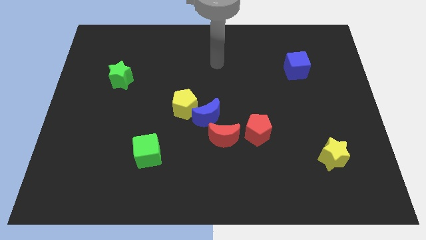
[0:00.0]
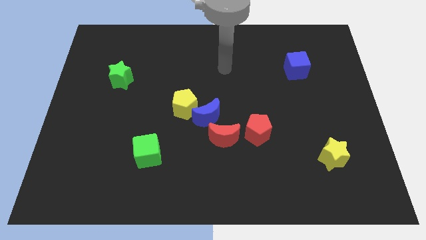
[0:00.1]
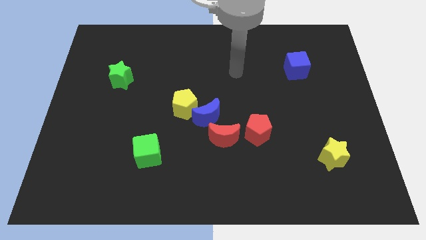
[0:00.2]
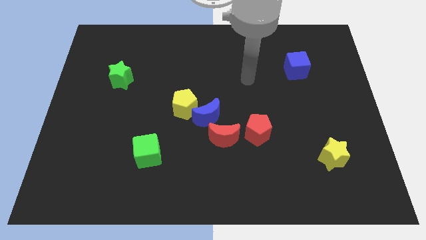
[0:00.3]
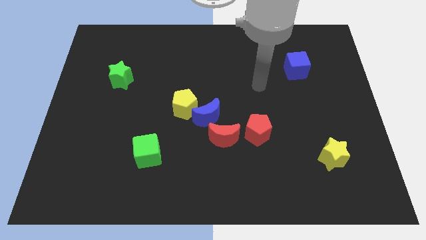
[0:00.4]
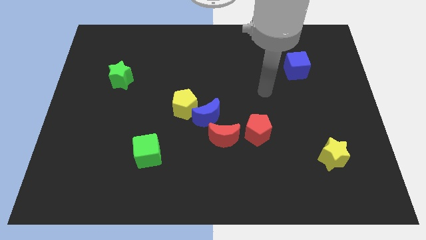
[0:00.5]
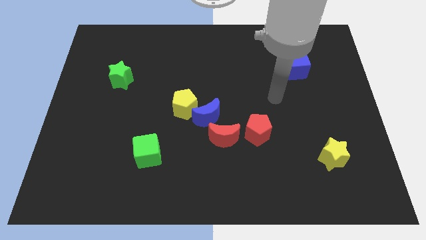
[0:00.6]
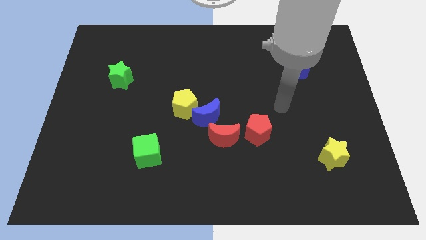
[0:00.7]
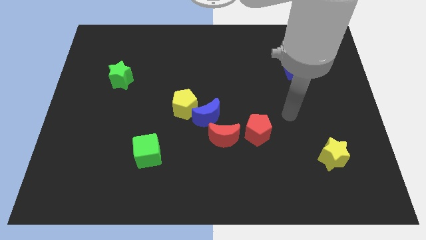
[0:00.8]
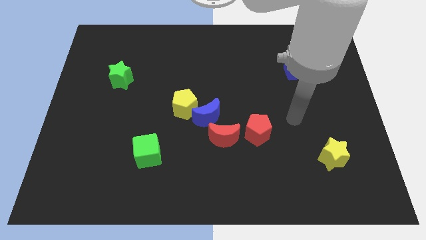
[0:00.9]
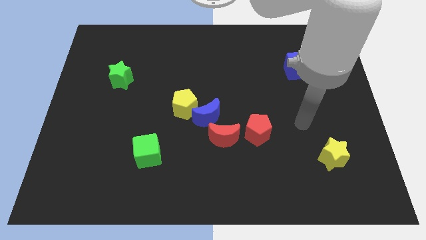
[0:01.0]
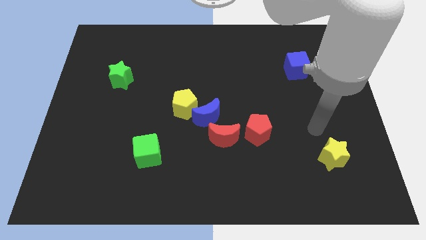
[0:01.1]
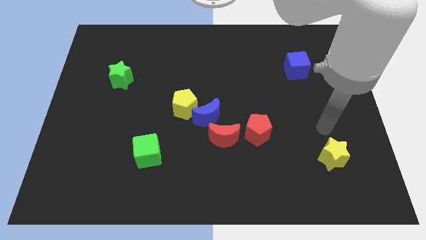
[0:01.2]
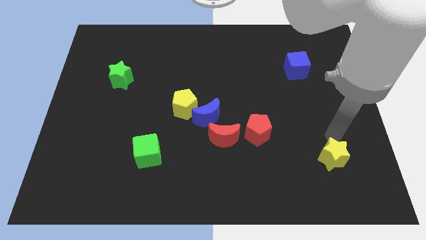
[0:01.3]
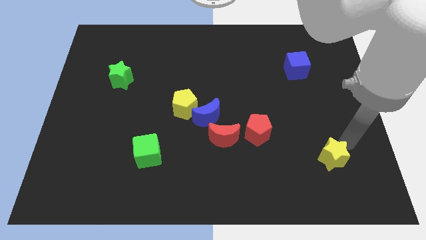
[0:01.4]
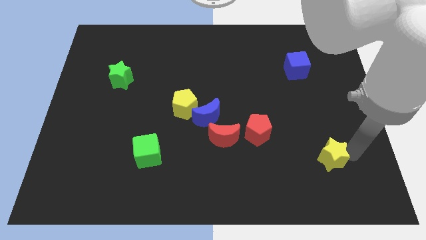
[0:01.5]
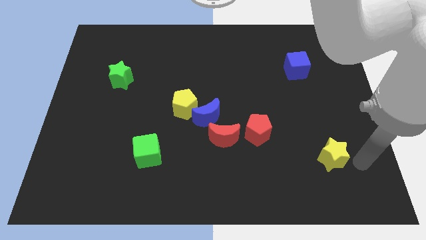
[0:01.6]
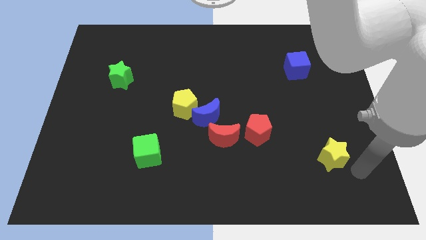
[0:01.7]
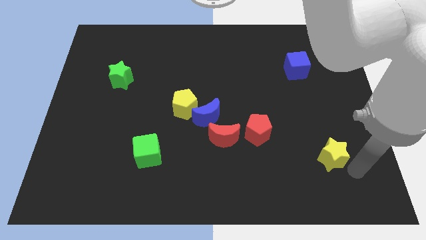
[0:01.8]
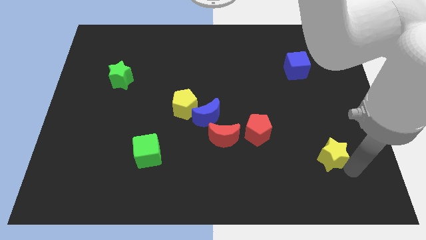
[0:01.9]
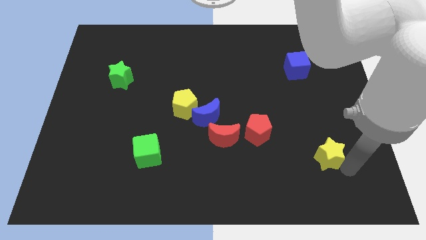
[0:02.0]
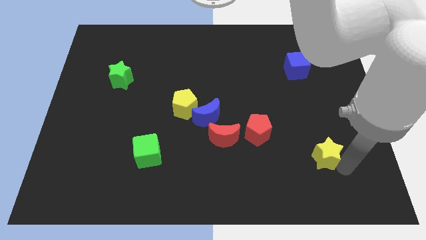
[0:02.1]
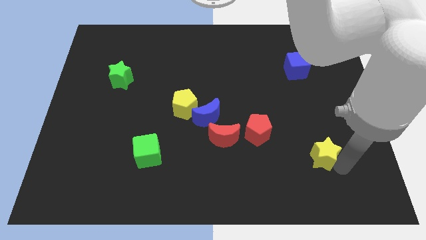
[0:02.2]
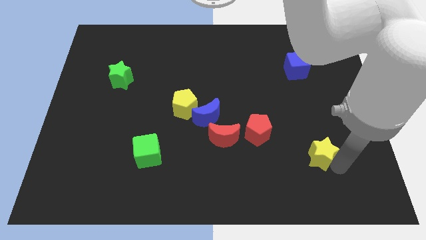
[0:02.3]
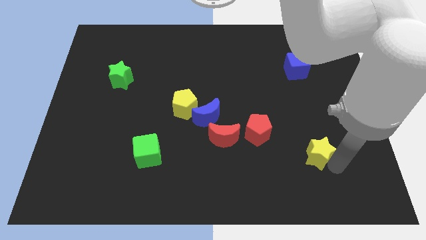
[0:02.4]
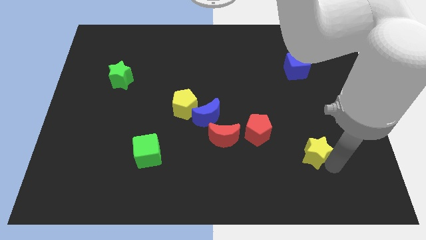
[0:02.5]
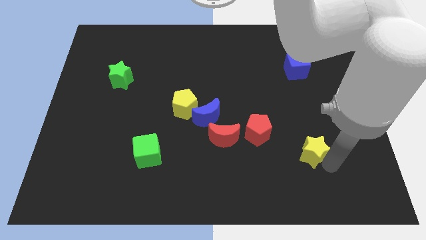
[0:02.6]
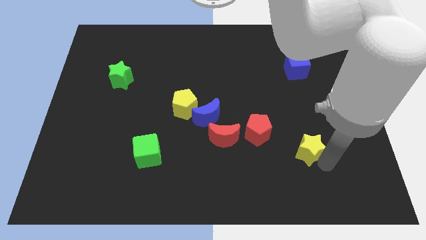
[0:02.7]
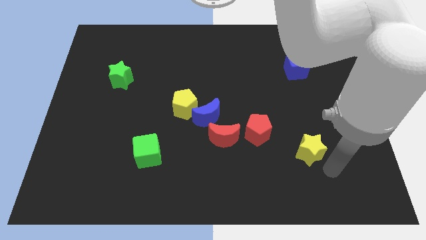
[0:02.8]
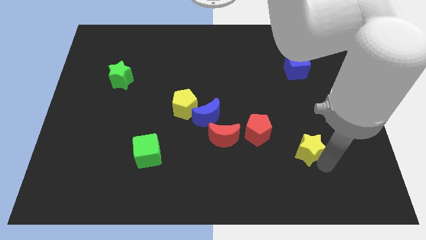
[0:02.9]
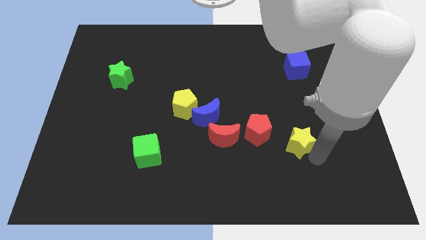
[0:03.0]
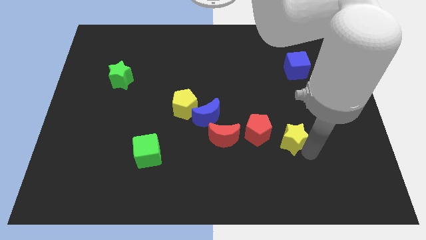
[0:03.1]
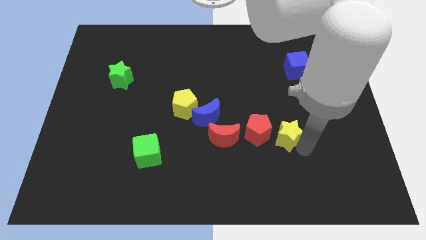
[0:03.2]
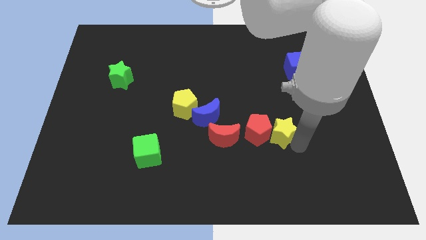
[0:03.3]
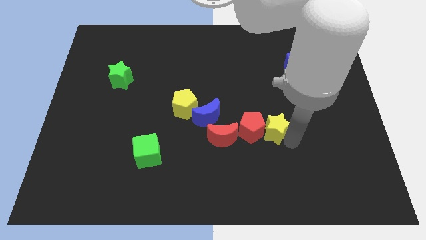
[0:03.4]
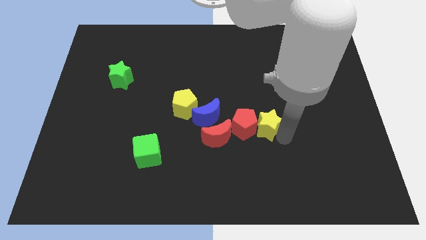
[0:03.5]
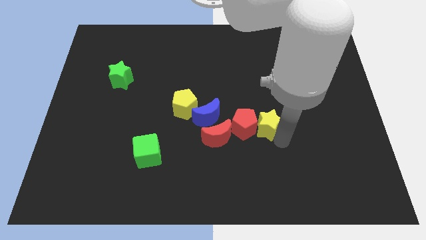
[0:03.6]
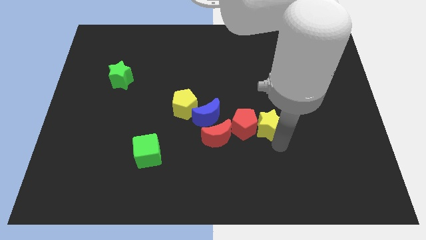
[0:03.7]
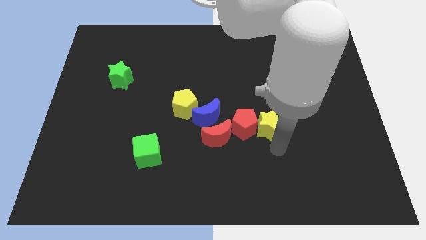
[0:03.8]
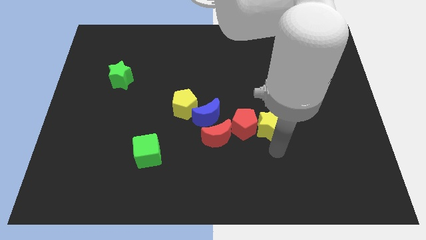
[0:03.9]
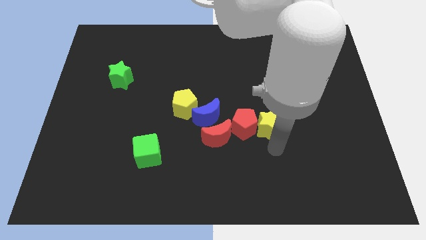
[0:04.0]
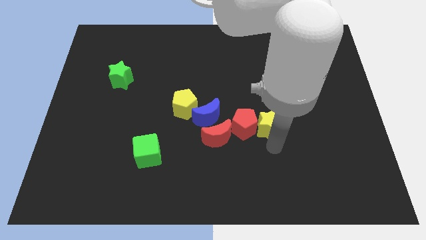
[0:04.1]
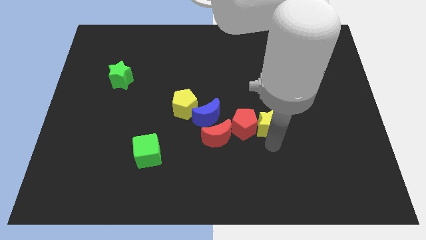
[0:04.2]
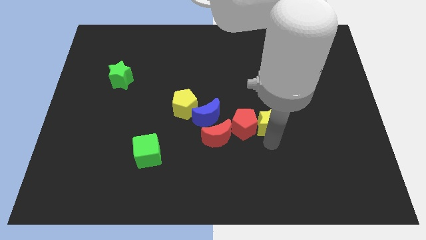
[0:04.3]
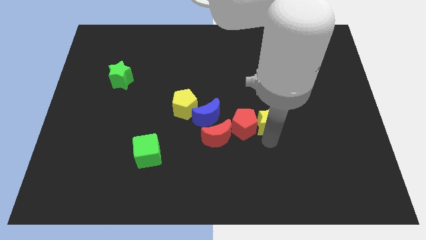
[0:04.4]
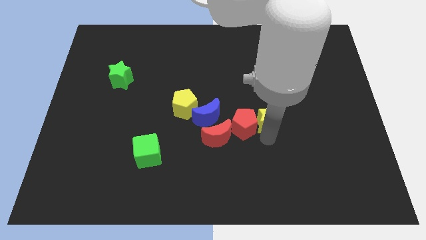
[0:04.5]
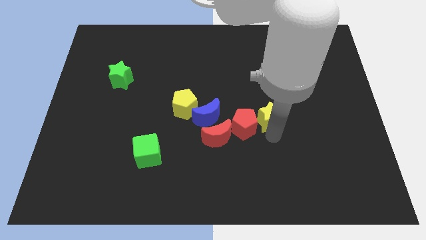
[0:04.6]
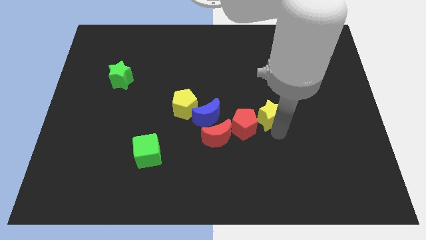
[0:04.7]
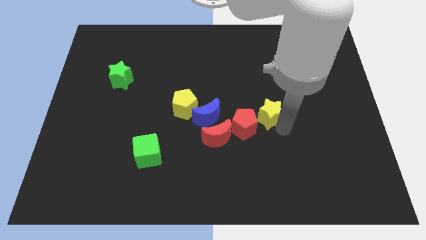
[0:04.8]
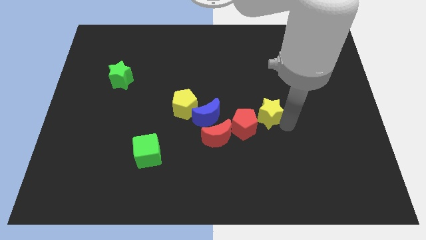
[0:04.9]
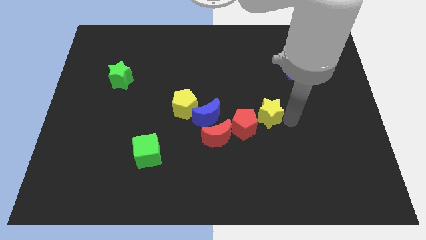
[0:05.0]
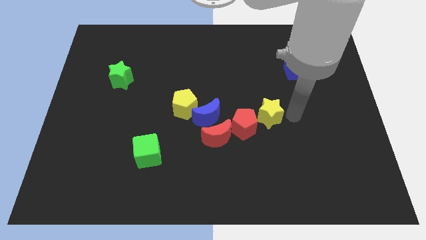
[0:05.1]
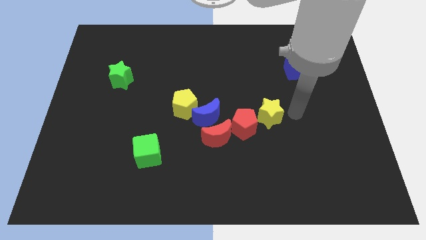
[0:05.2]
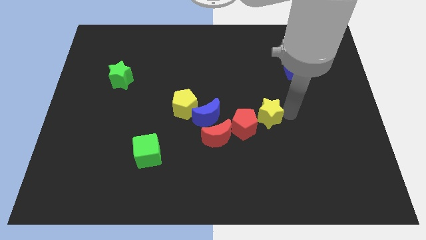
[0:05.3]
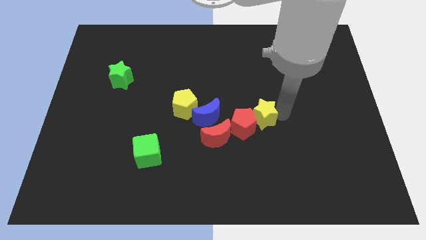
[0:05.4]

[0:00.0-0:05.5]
push the yellow star diagonally up and to the right of the red moon

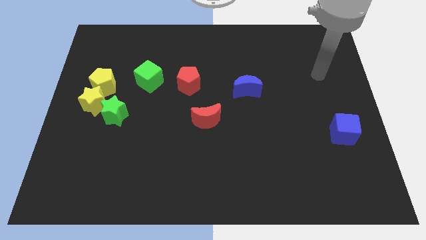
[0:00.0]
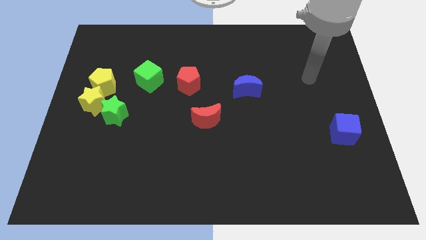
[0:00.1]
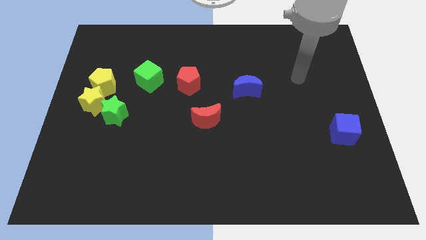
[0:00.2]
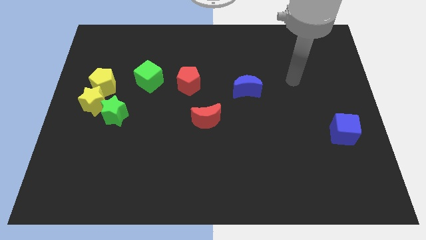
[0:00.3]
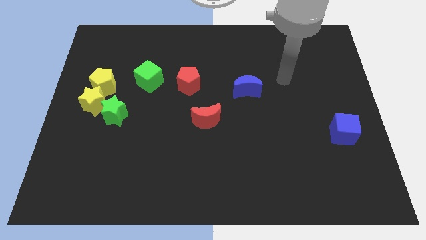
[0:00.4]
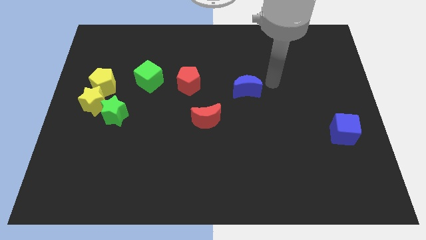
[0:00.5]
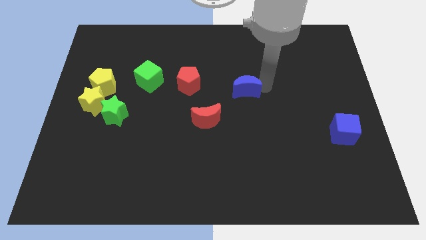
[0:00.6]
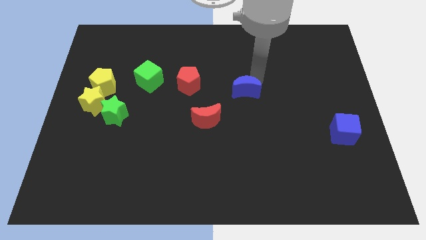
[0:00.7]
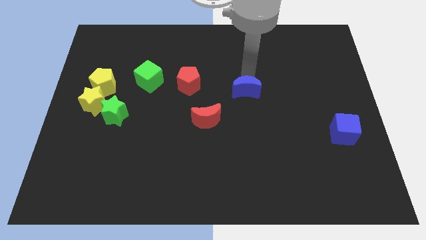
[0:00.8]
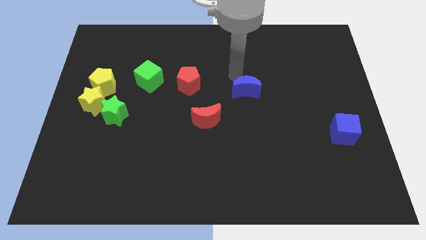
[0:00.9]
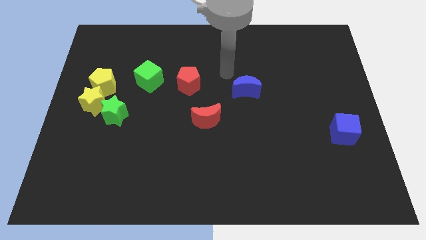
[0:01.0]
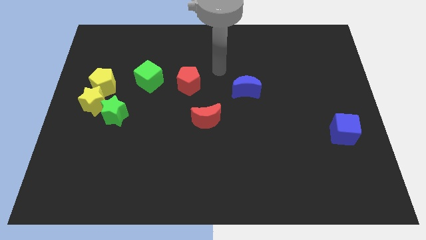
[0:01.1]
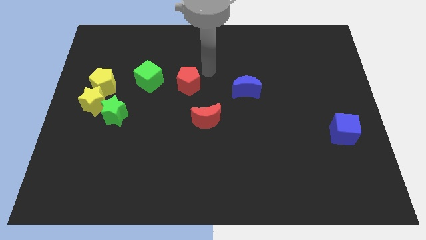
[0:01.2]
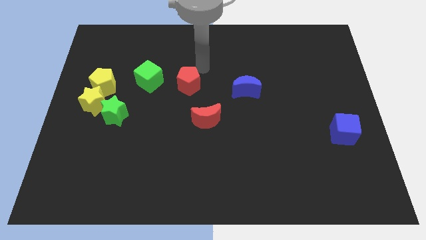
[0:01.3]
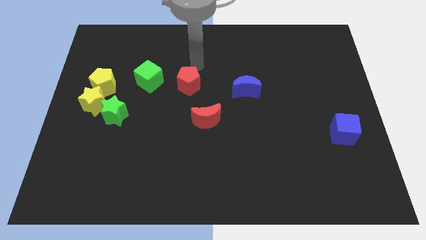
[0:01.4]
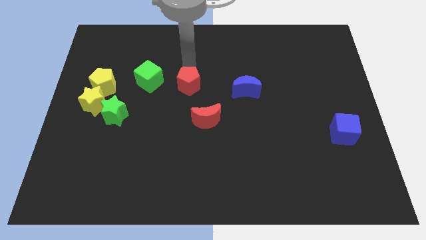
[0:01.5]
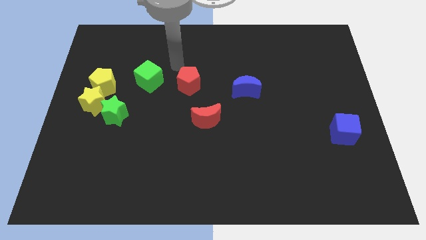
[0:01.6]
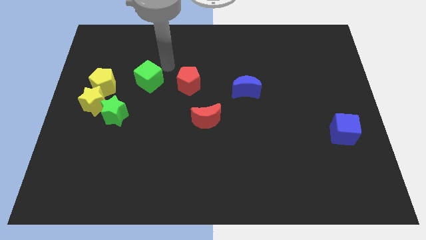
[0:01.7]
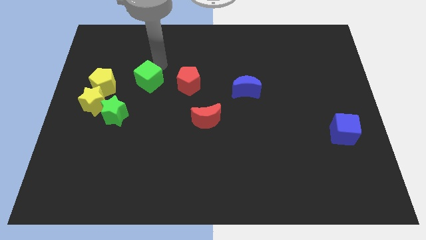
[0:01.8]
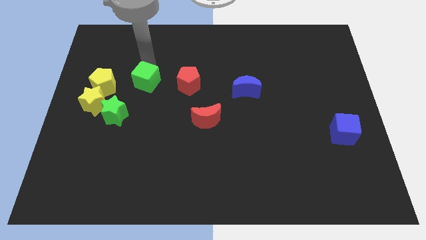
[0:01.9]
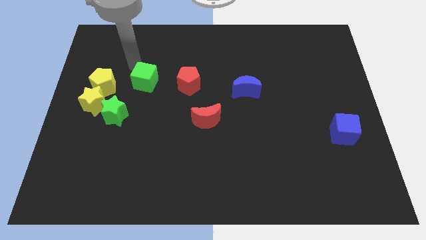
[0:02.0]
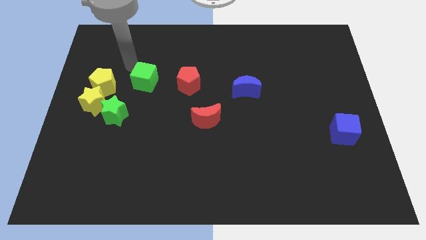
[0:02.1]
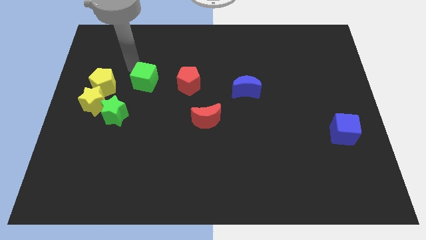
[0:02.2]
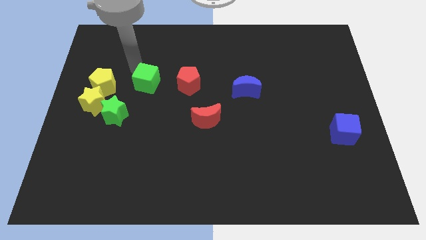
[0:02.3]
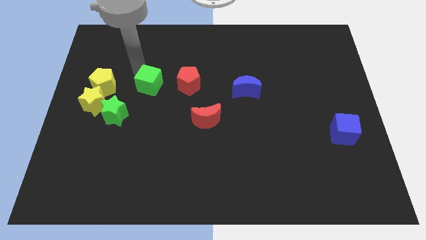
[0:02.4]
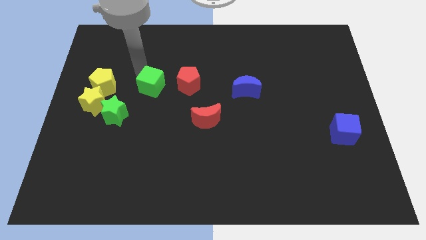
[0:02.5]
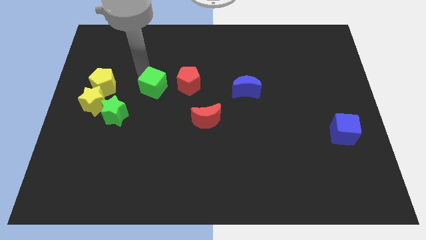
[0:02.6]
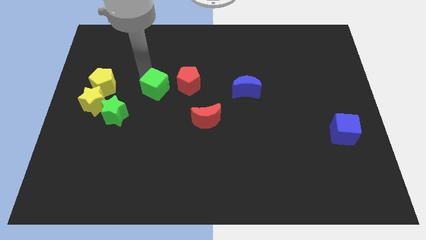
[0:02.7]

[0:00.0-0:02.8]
move the green cube to the bottom left side of the red pentagon
